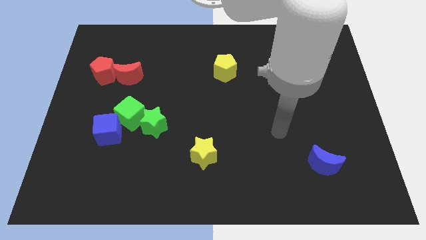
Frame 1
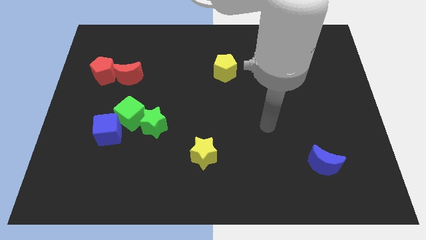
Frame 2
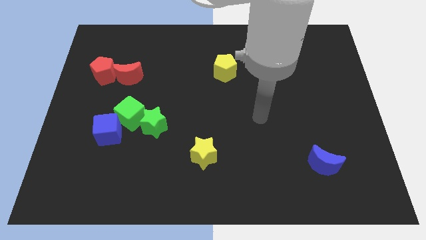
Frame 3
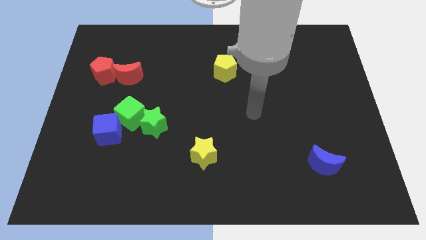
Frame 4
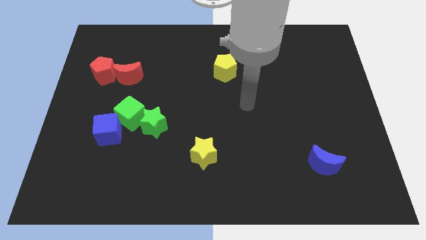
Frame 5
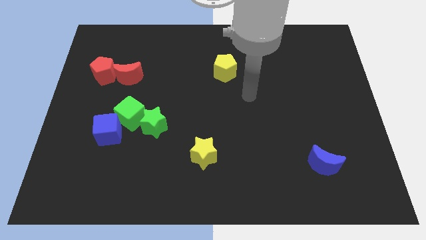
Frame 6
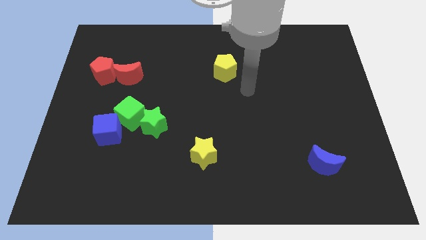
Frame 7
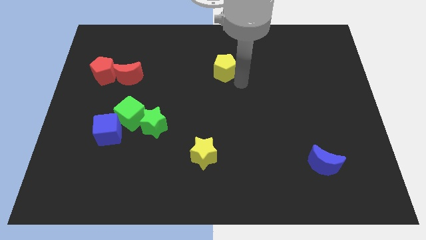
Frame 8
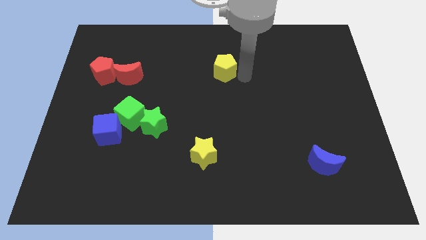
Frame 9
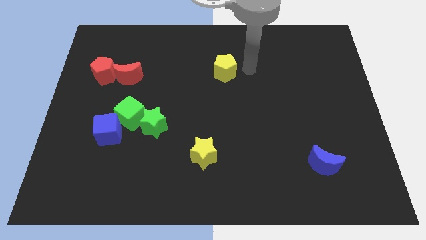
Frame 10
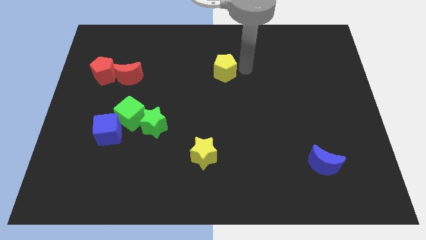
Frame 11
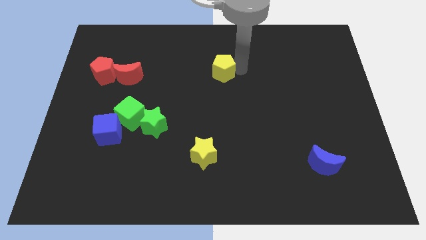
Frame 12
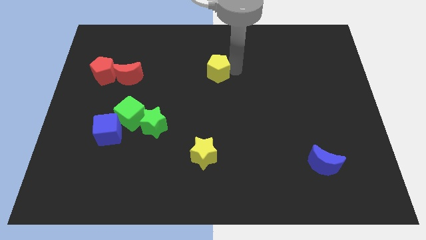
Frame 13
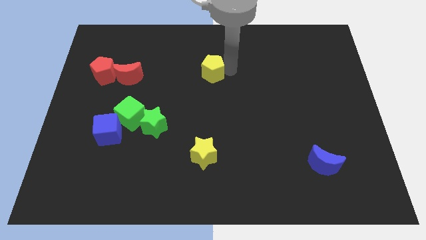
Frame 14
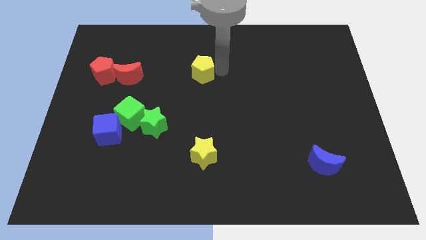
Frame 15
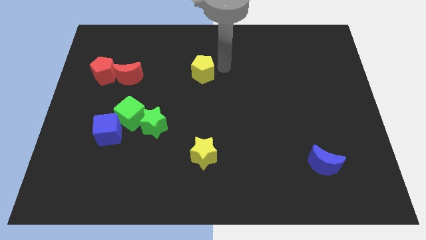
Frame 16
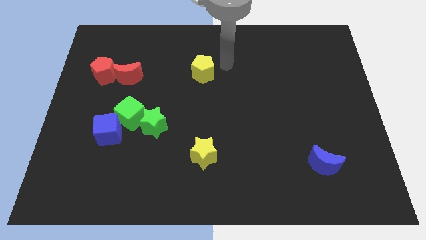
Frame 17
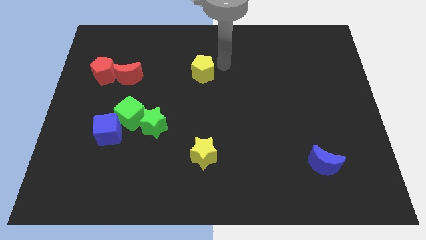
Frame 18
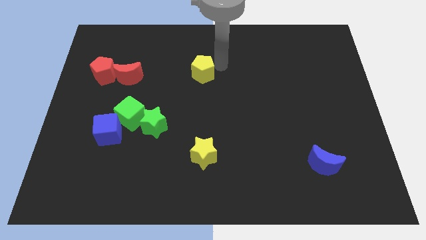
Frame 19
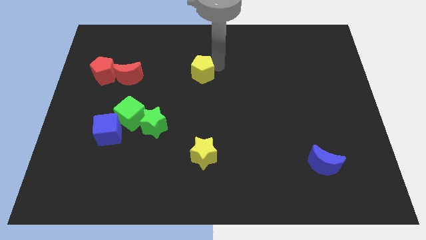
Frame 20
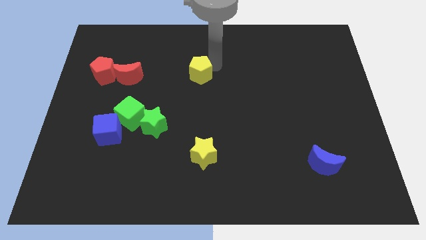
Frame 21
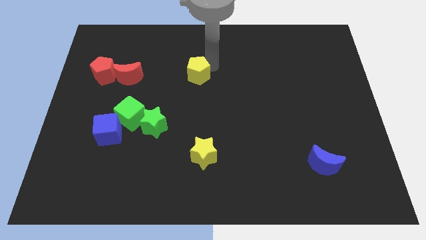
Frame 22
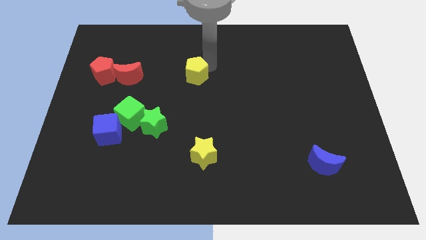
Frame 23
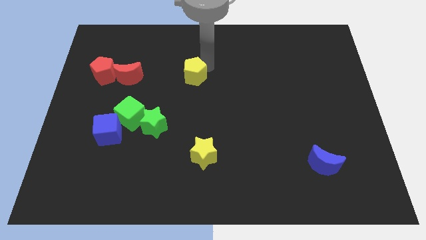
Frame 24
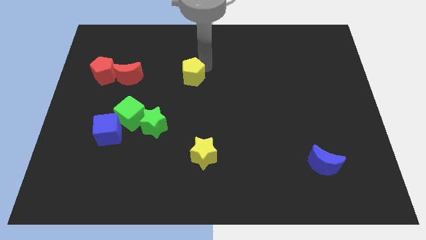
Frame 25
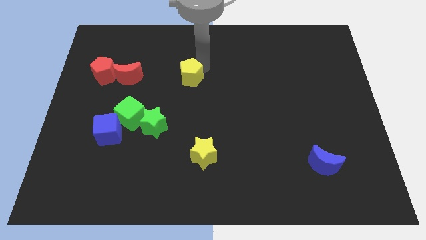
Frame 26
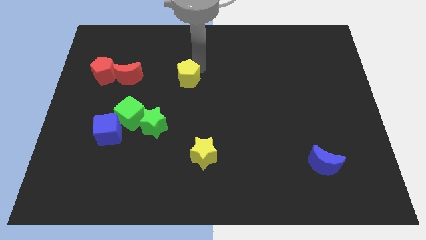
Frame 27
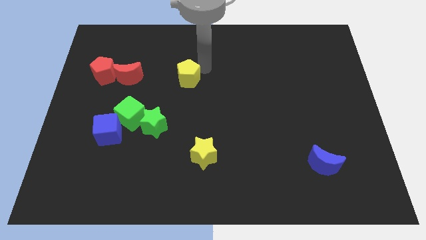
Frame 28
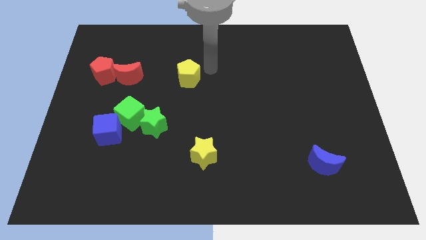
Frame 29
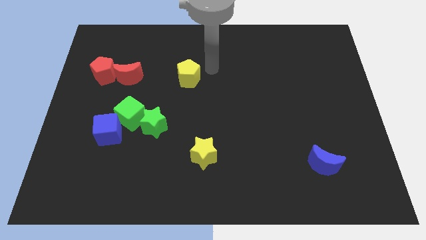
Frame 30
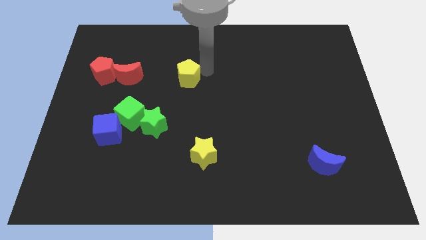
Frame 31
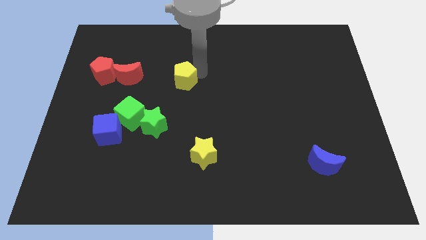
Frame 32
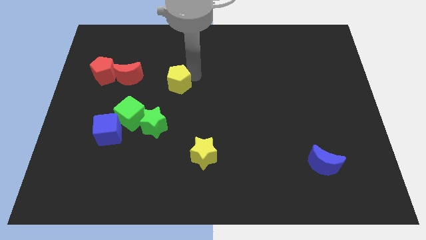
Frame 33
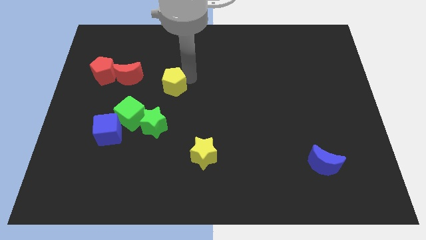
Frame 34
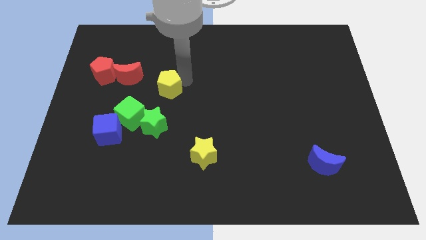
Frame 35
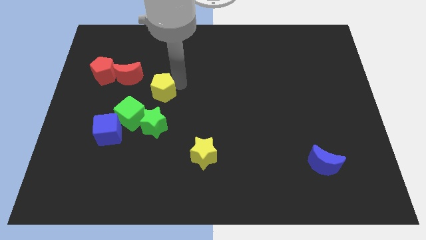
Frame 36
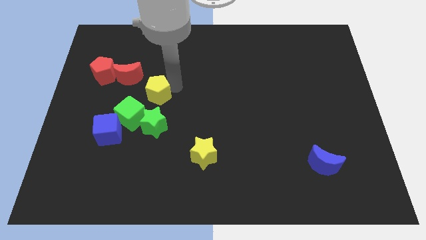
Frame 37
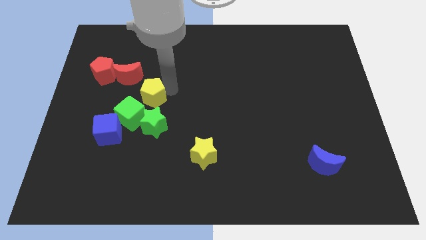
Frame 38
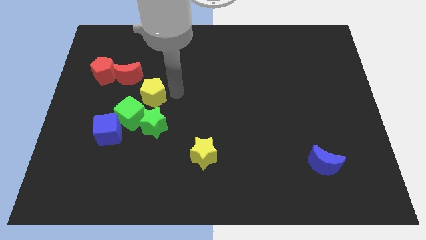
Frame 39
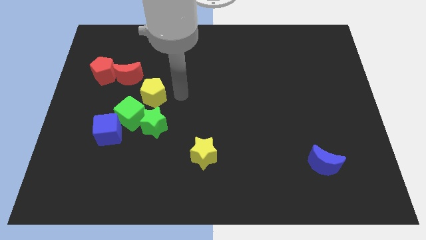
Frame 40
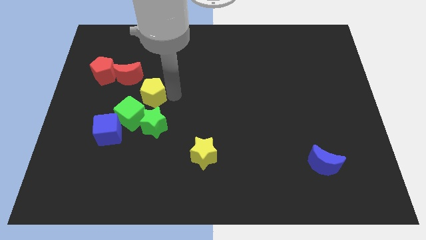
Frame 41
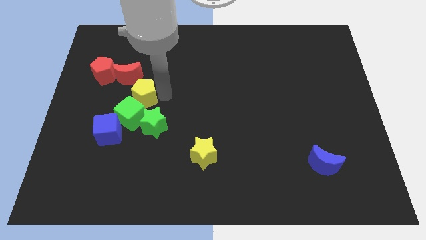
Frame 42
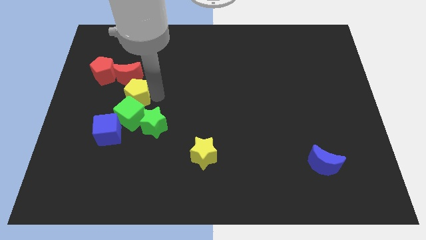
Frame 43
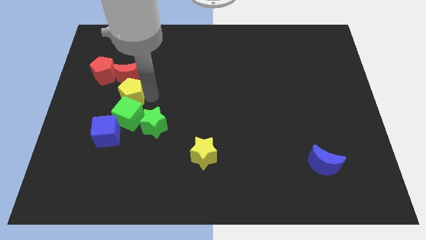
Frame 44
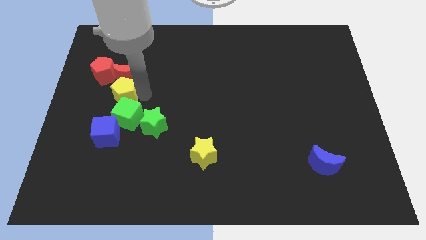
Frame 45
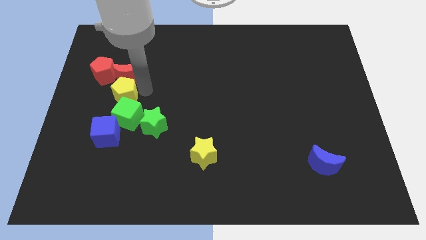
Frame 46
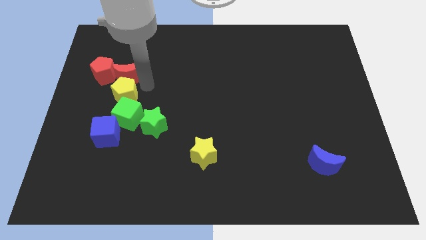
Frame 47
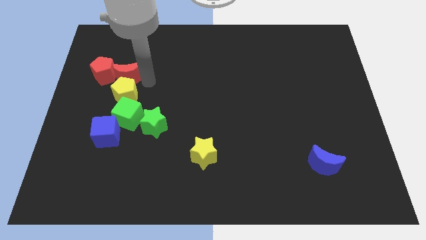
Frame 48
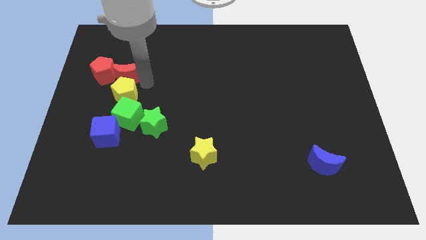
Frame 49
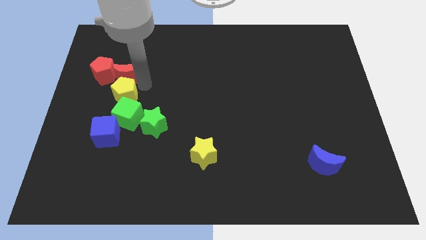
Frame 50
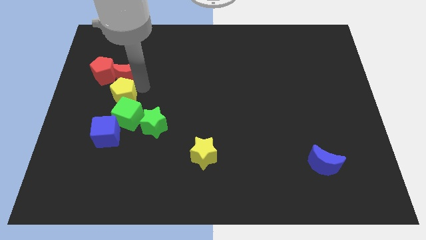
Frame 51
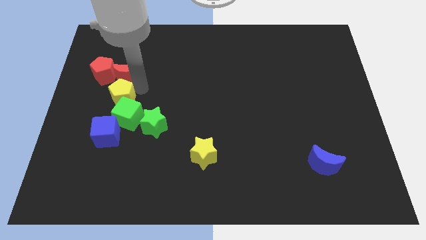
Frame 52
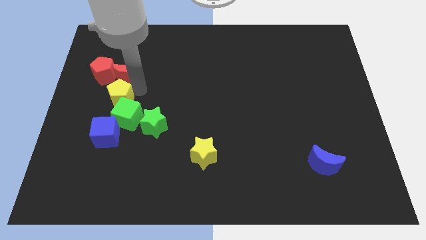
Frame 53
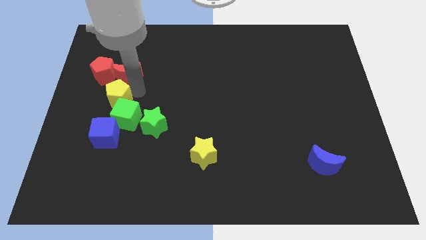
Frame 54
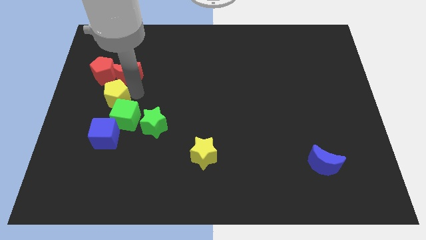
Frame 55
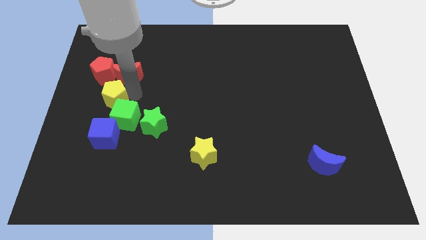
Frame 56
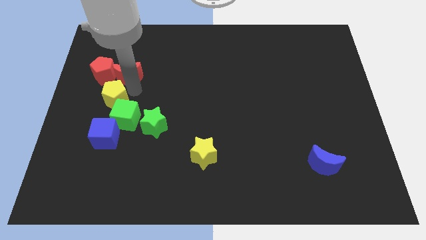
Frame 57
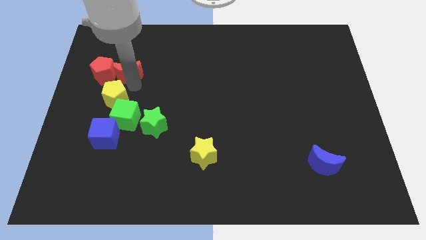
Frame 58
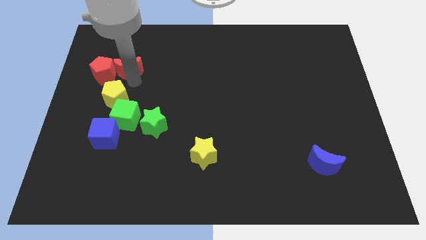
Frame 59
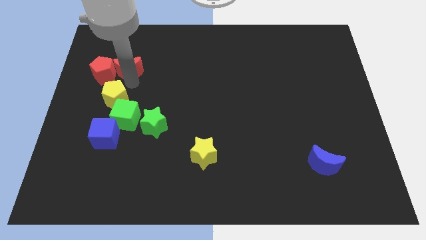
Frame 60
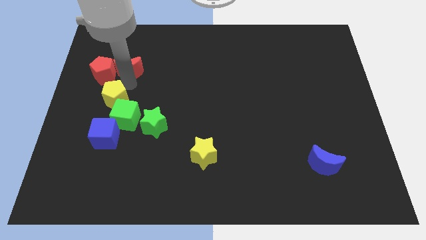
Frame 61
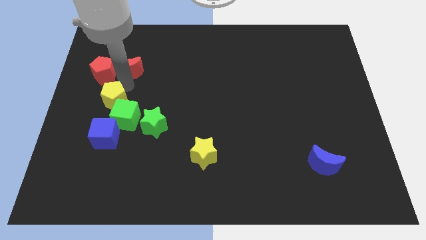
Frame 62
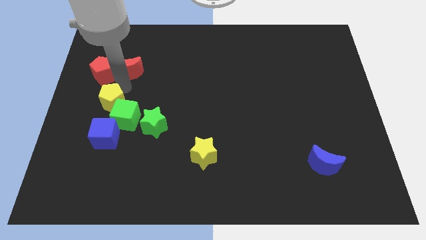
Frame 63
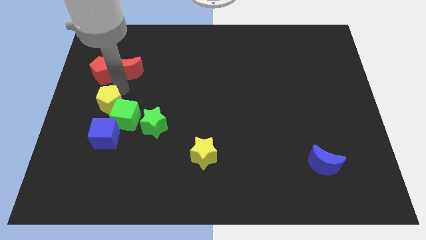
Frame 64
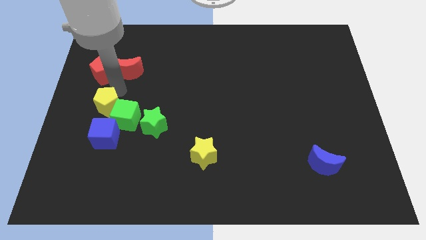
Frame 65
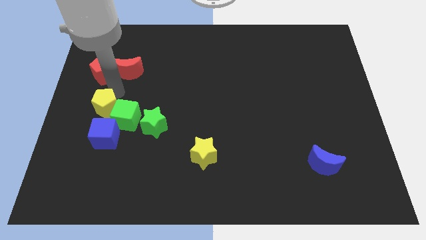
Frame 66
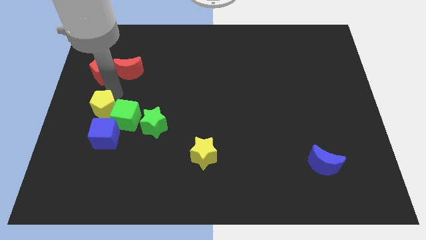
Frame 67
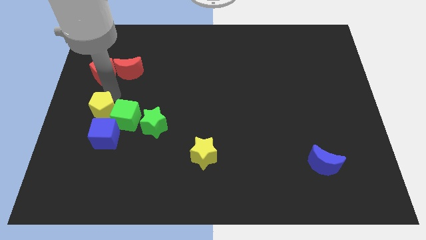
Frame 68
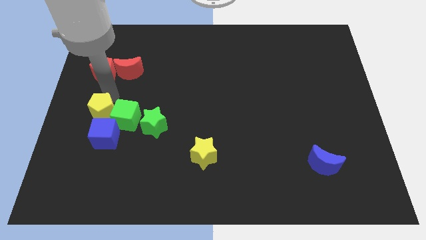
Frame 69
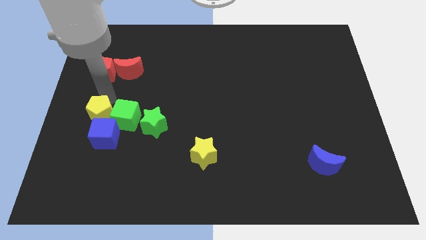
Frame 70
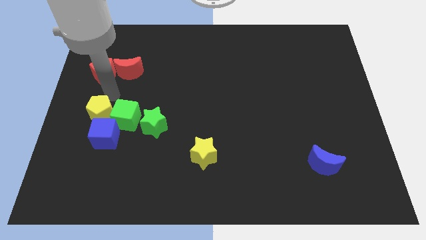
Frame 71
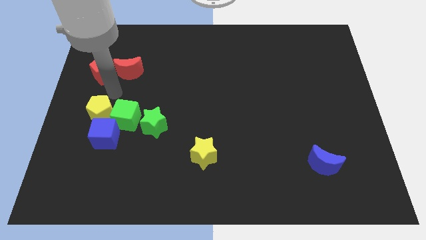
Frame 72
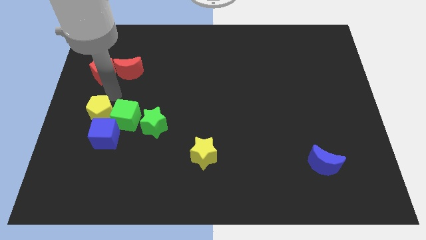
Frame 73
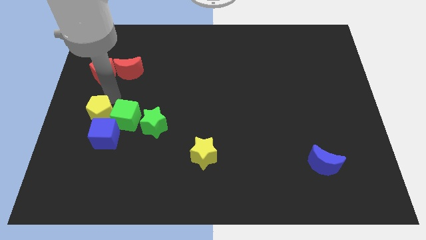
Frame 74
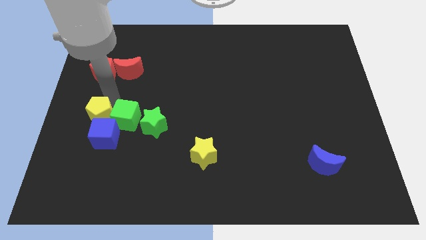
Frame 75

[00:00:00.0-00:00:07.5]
slide the yellow pentagon diagonally down and to the left of the green cube
